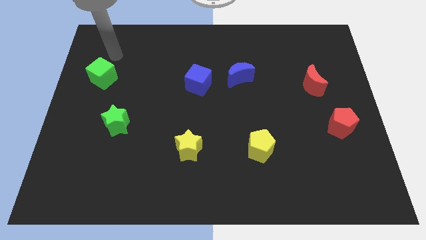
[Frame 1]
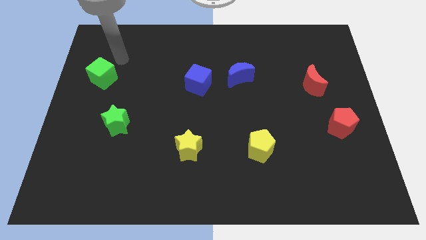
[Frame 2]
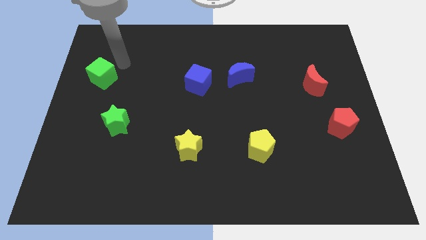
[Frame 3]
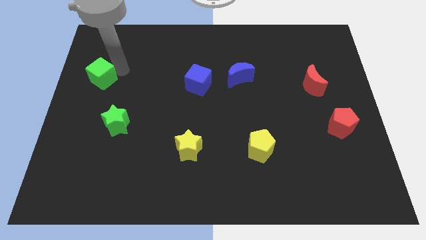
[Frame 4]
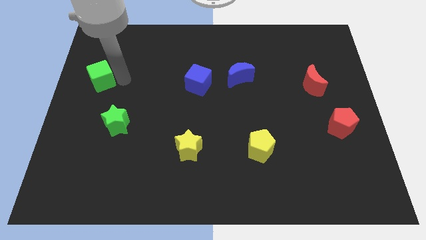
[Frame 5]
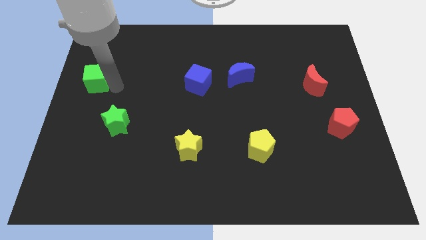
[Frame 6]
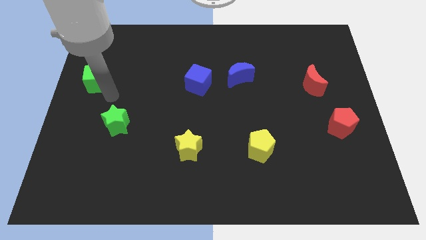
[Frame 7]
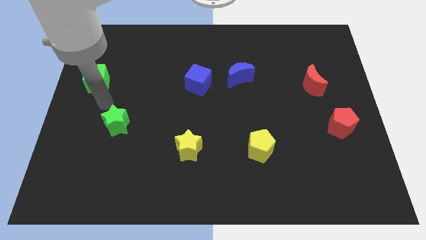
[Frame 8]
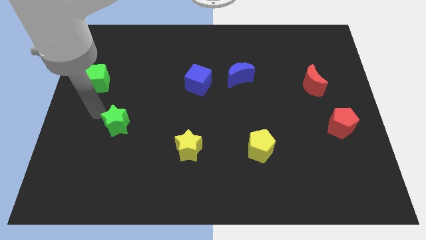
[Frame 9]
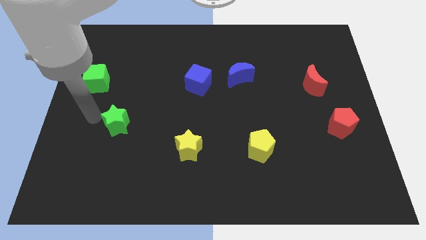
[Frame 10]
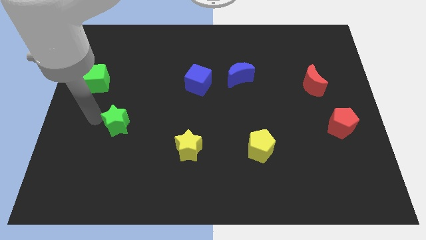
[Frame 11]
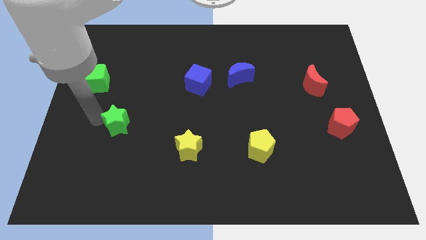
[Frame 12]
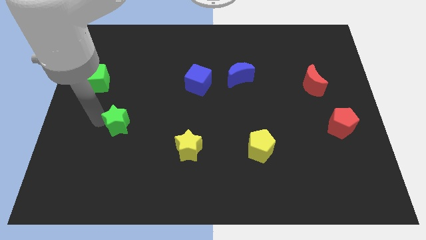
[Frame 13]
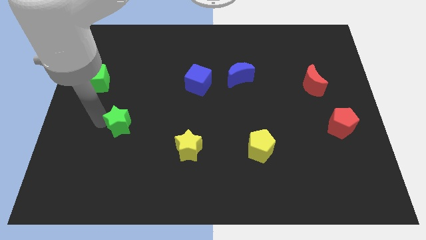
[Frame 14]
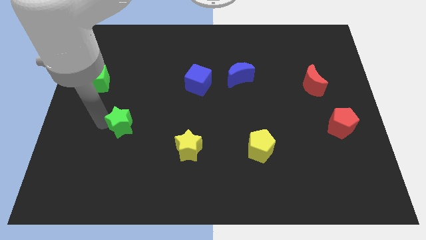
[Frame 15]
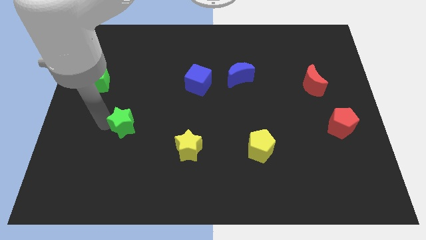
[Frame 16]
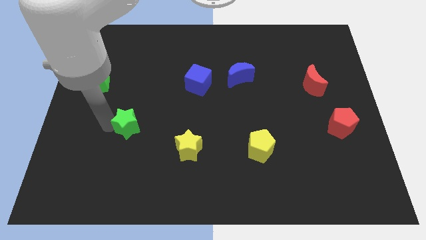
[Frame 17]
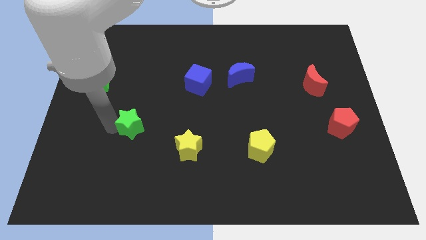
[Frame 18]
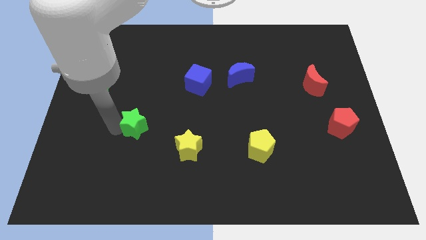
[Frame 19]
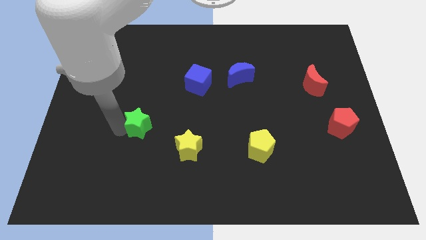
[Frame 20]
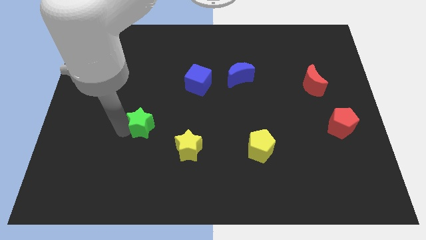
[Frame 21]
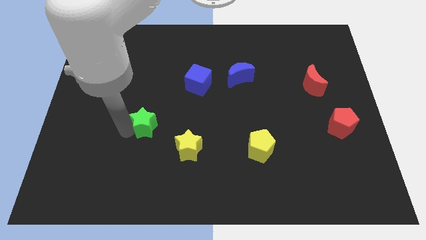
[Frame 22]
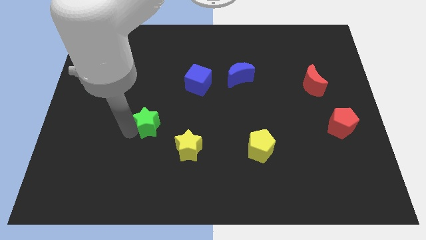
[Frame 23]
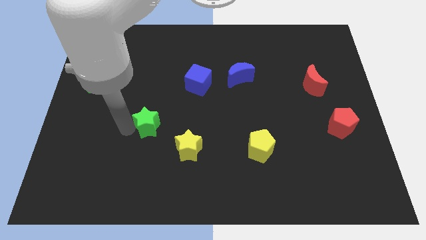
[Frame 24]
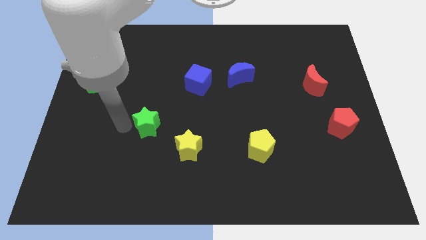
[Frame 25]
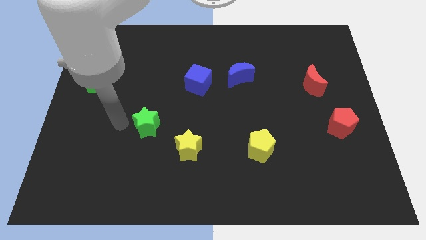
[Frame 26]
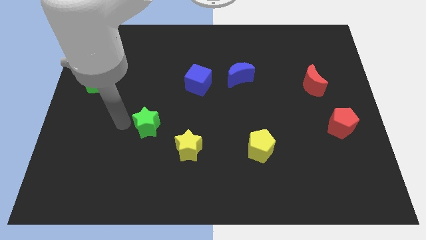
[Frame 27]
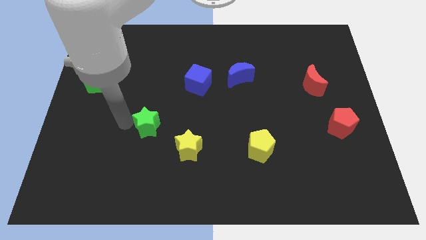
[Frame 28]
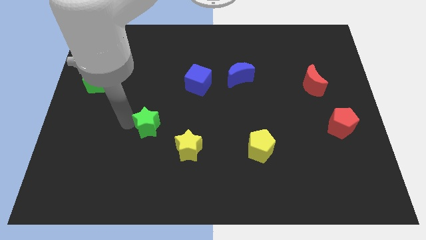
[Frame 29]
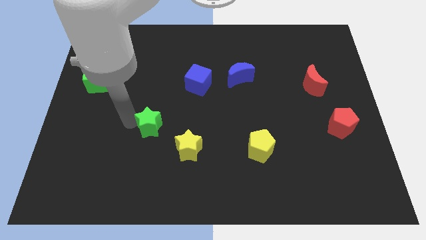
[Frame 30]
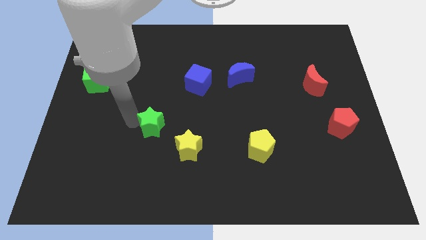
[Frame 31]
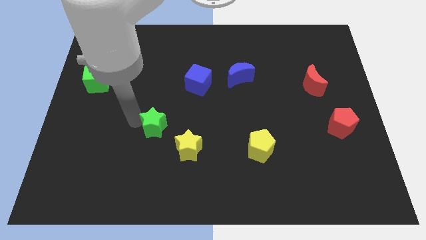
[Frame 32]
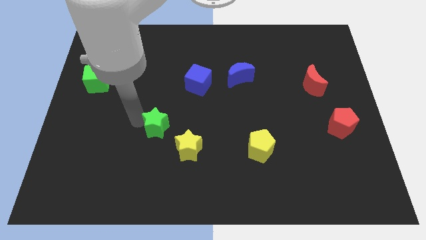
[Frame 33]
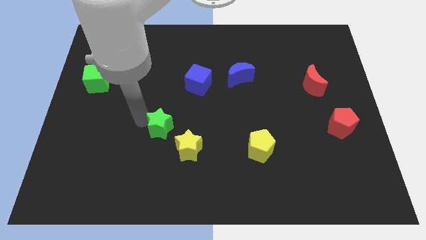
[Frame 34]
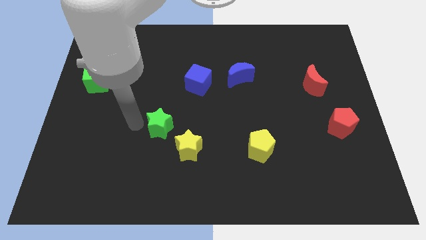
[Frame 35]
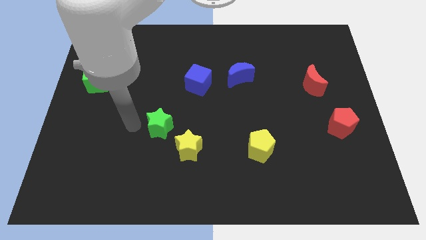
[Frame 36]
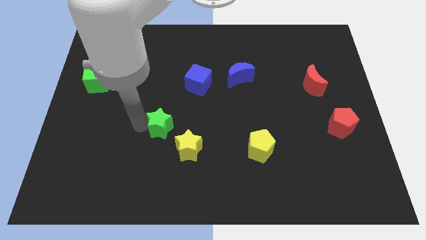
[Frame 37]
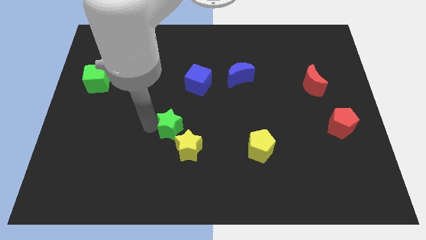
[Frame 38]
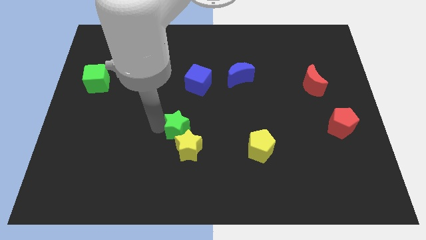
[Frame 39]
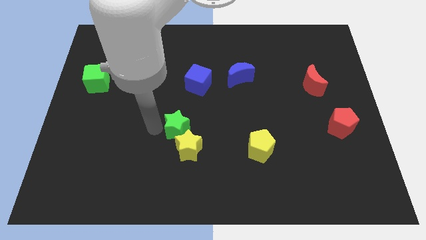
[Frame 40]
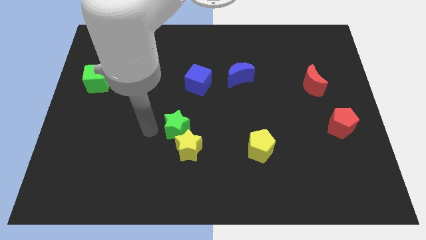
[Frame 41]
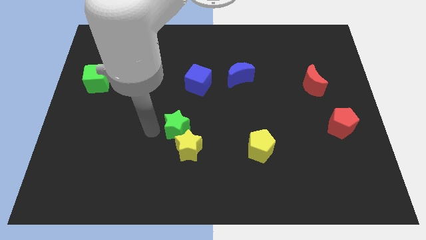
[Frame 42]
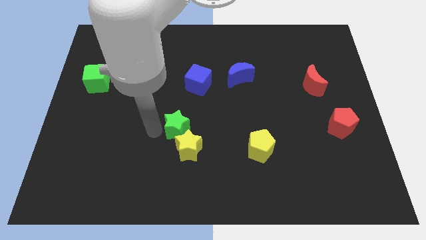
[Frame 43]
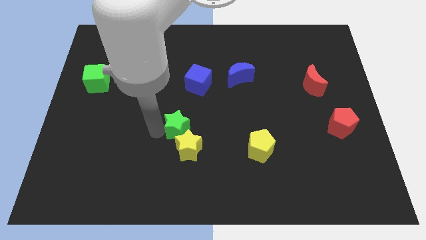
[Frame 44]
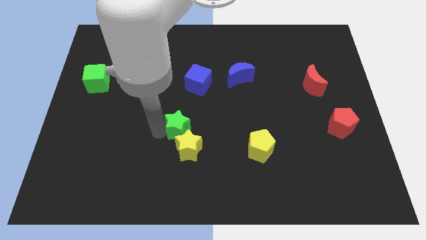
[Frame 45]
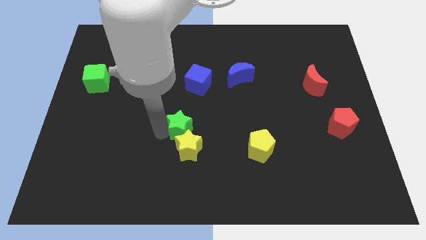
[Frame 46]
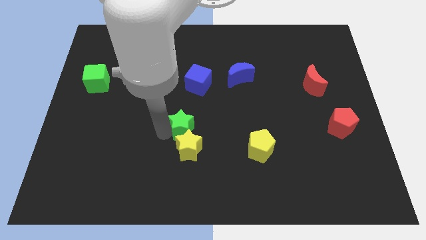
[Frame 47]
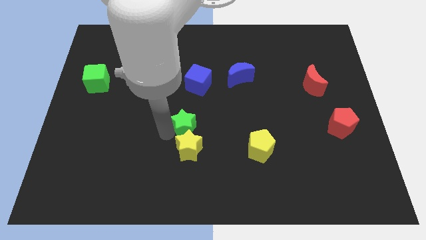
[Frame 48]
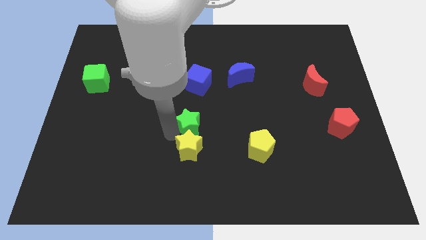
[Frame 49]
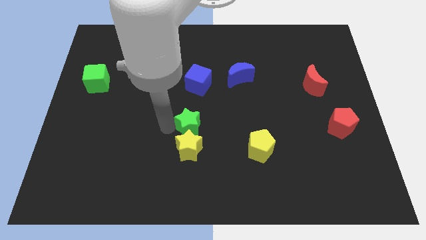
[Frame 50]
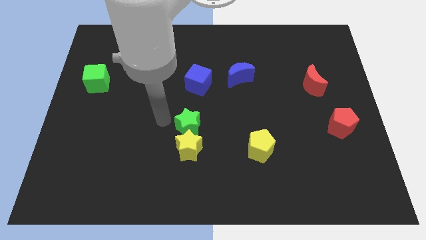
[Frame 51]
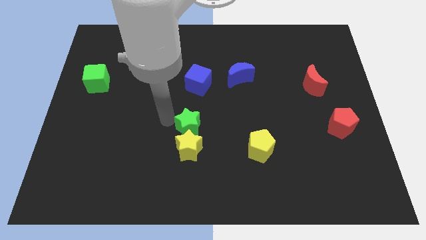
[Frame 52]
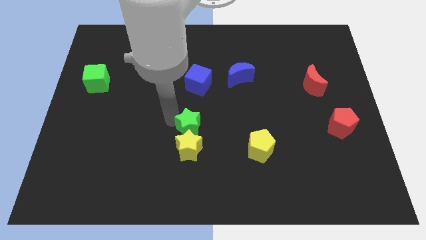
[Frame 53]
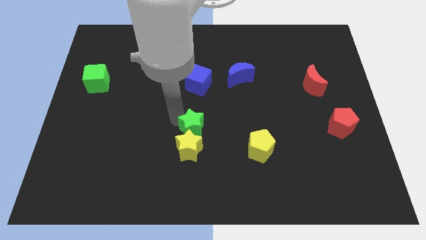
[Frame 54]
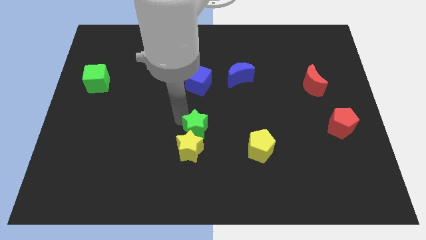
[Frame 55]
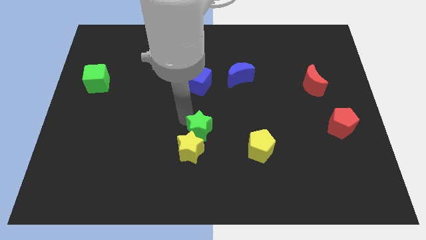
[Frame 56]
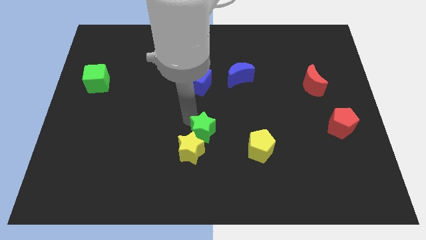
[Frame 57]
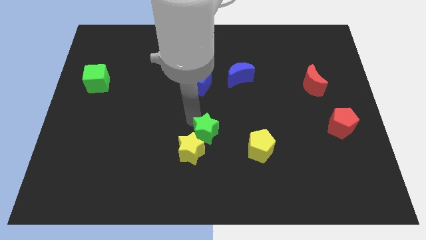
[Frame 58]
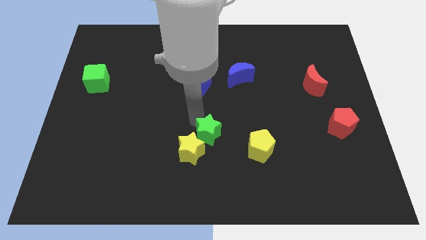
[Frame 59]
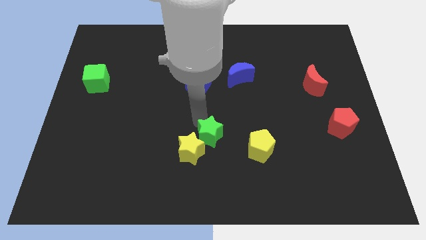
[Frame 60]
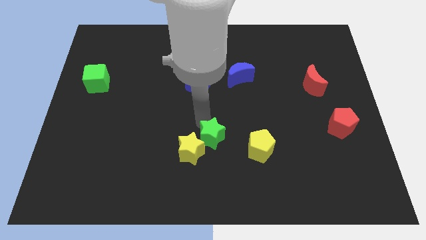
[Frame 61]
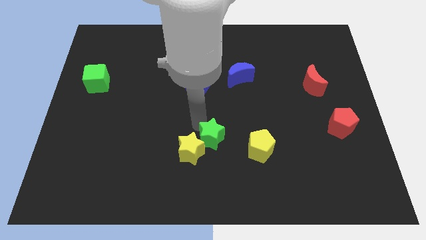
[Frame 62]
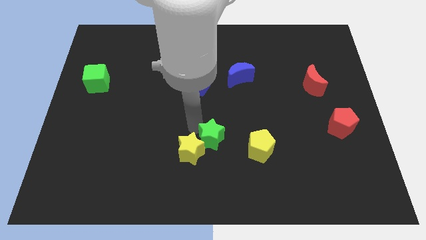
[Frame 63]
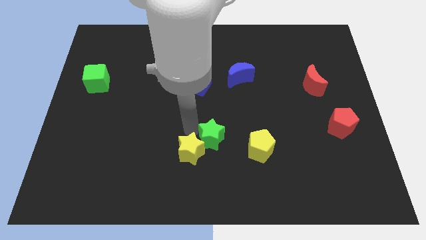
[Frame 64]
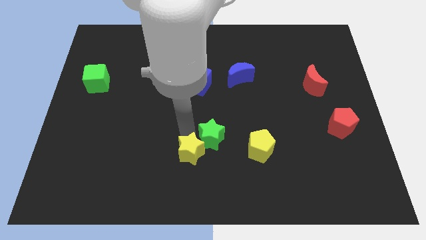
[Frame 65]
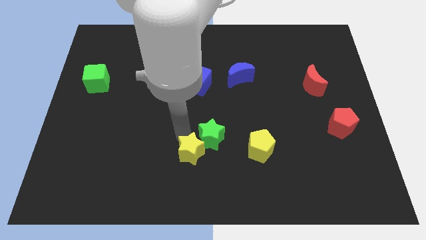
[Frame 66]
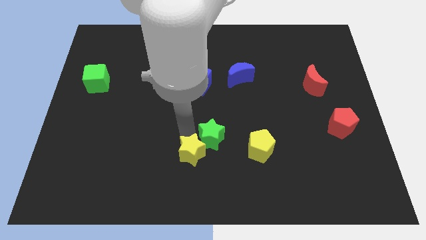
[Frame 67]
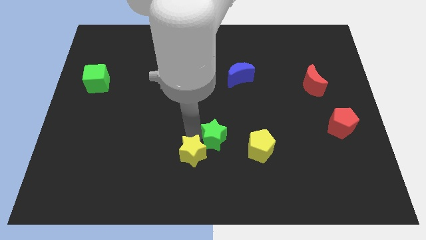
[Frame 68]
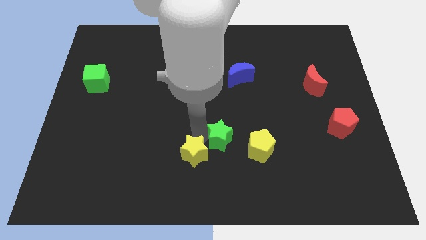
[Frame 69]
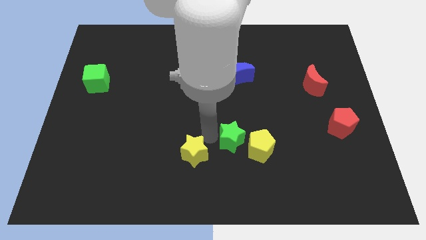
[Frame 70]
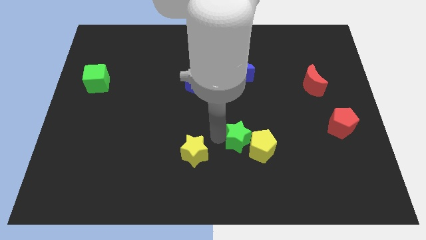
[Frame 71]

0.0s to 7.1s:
slide the green star to the yellow pentagon
